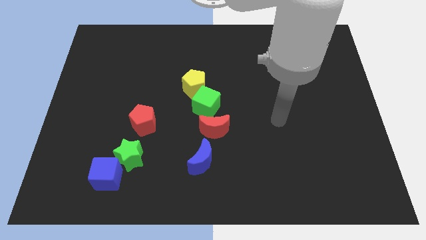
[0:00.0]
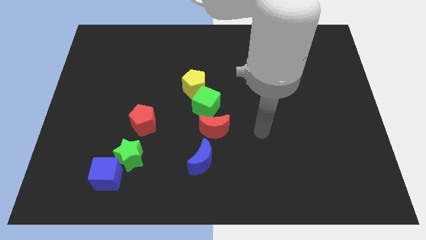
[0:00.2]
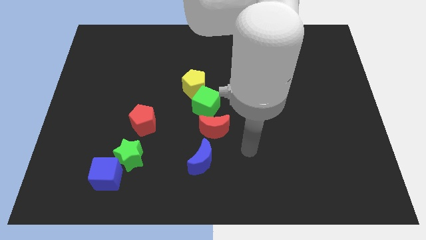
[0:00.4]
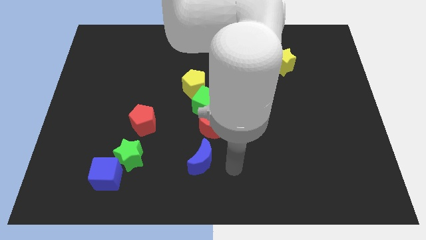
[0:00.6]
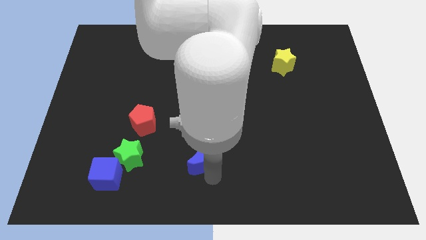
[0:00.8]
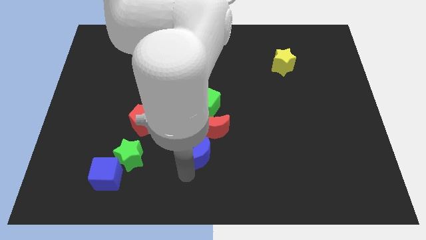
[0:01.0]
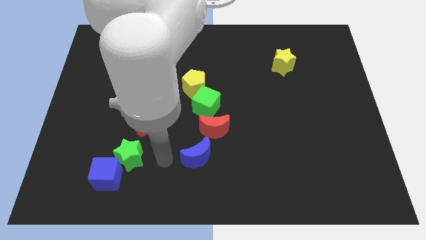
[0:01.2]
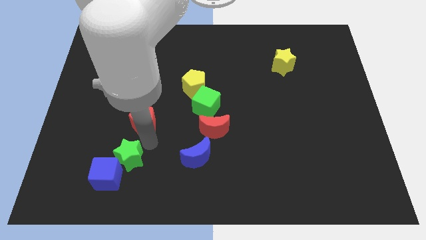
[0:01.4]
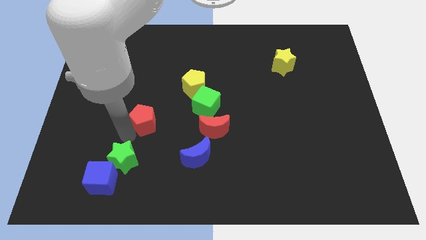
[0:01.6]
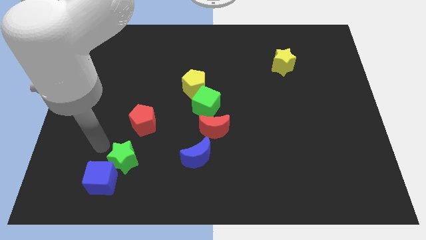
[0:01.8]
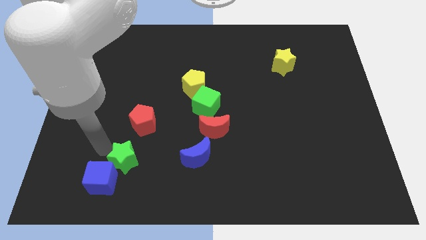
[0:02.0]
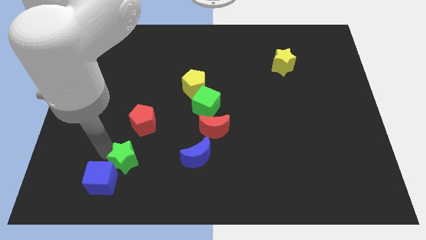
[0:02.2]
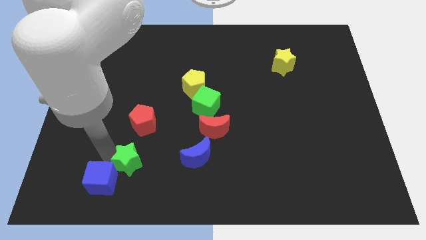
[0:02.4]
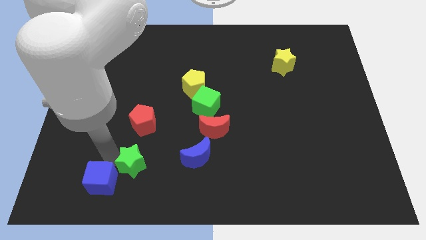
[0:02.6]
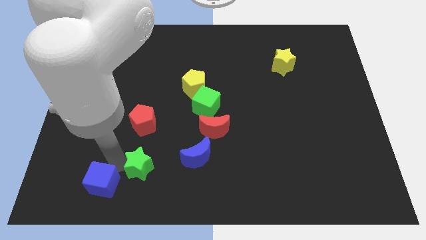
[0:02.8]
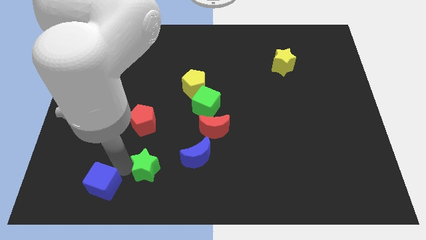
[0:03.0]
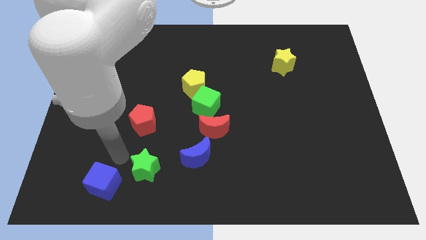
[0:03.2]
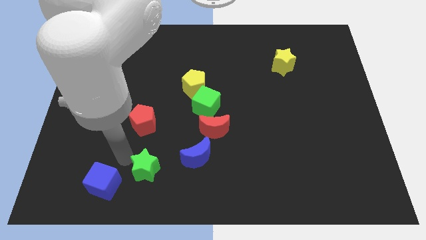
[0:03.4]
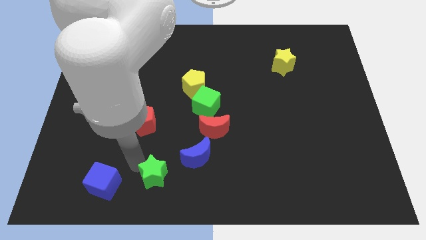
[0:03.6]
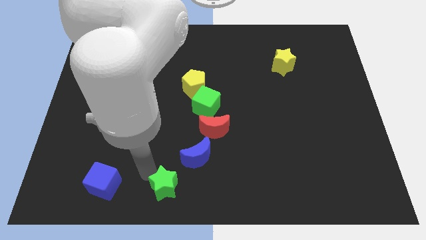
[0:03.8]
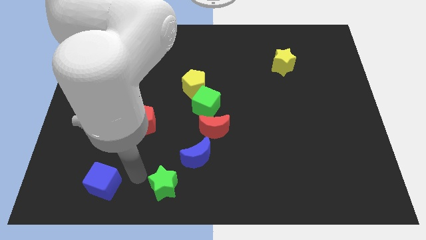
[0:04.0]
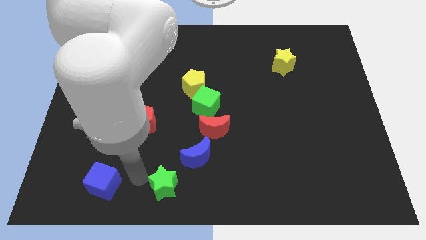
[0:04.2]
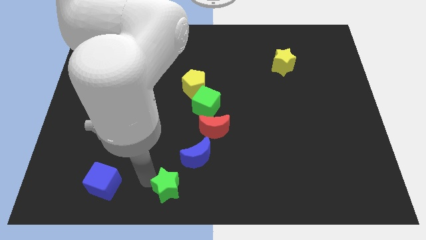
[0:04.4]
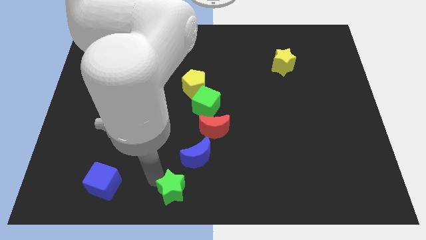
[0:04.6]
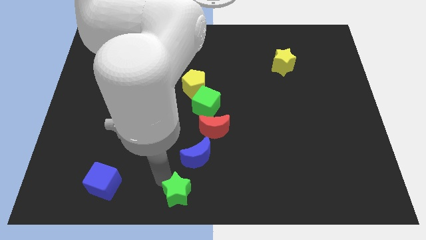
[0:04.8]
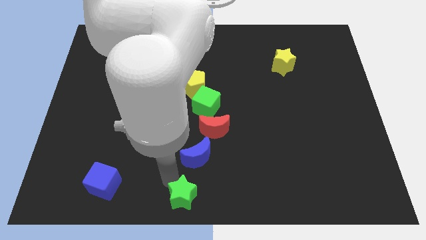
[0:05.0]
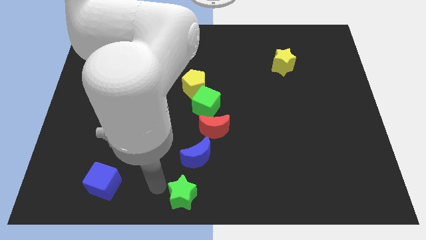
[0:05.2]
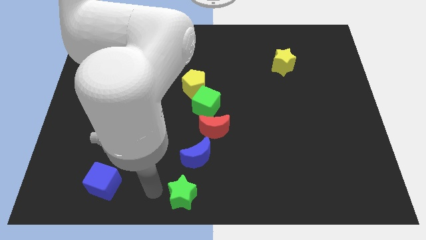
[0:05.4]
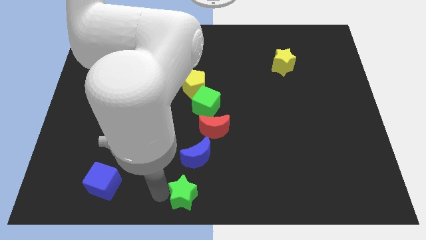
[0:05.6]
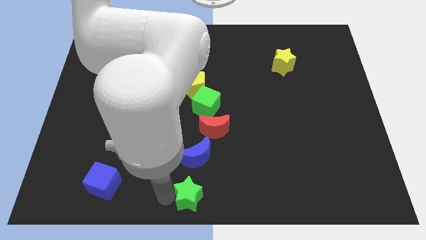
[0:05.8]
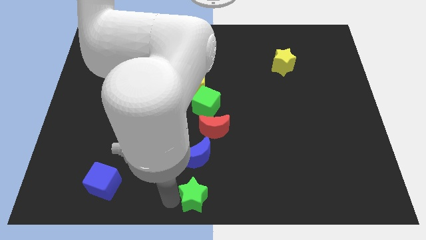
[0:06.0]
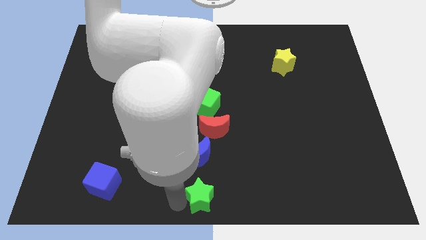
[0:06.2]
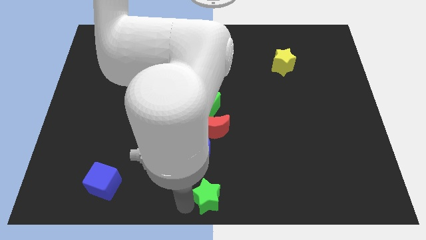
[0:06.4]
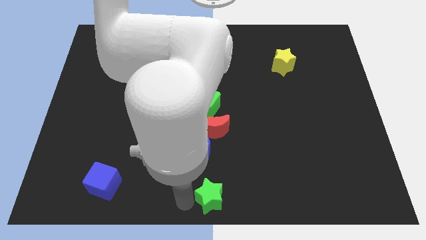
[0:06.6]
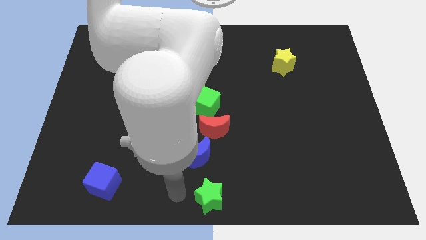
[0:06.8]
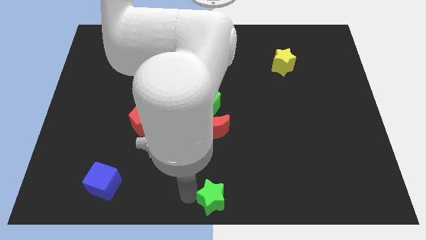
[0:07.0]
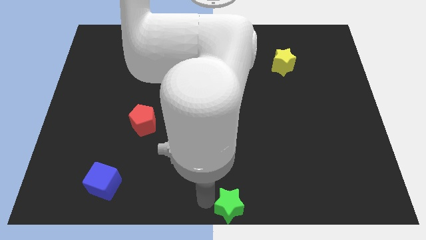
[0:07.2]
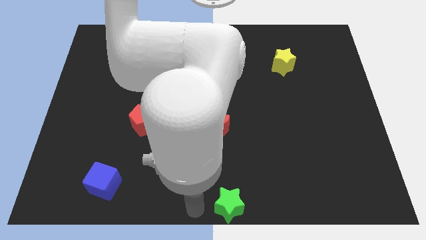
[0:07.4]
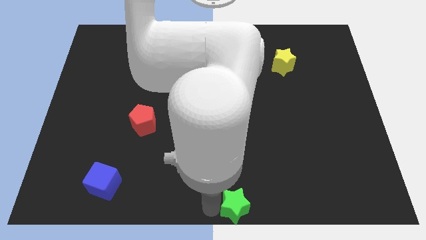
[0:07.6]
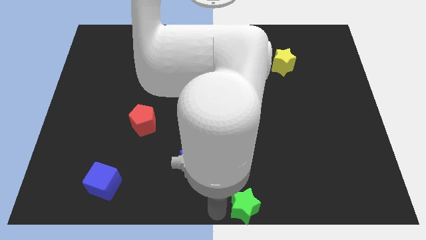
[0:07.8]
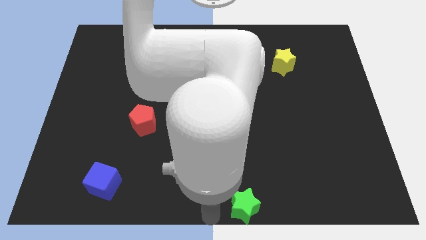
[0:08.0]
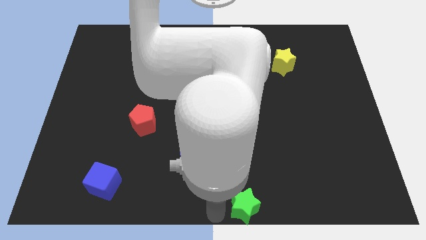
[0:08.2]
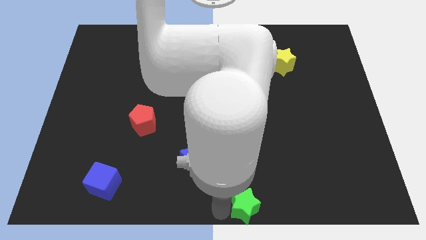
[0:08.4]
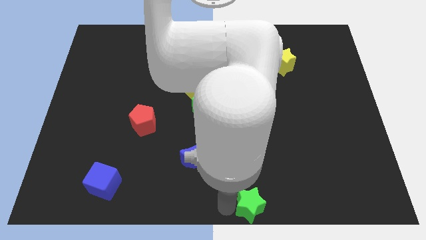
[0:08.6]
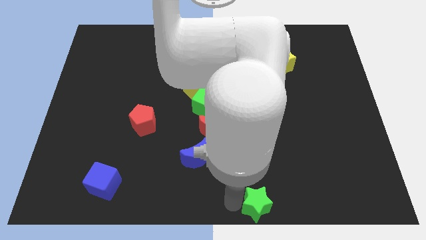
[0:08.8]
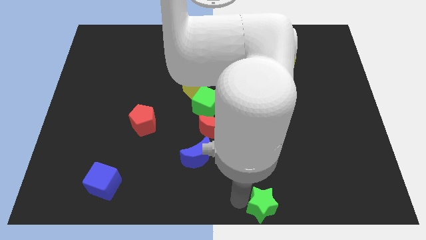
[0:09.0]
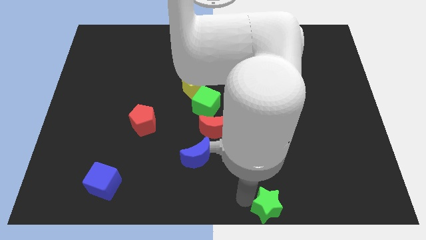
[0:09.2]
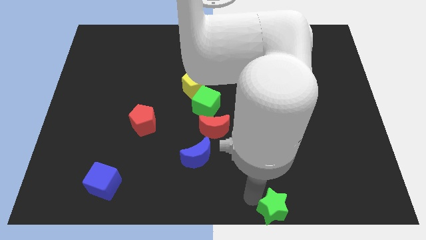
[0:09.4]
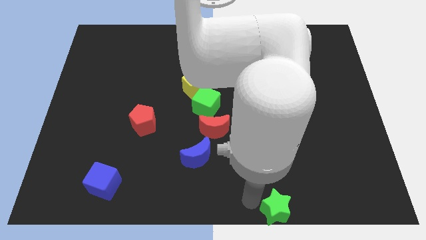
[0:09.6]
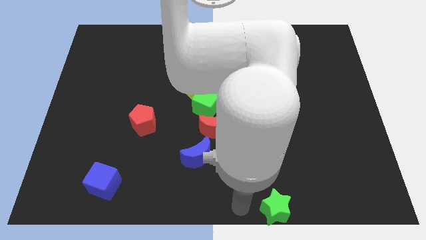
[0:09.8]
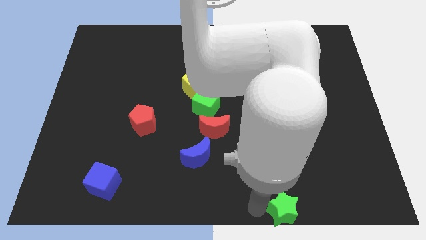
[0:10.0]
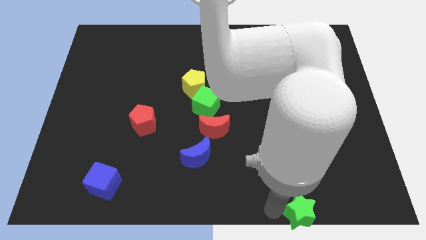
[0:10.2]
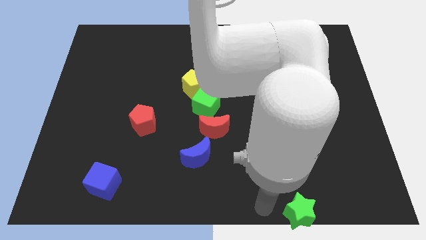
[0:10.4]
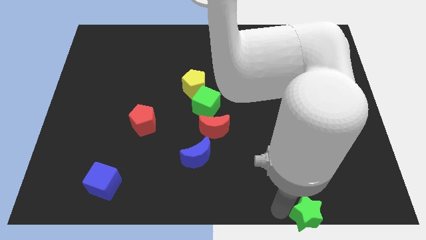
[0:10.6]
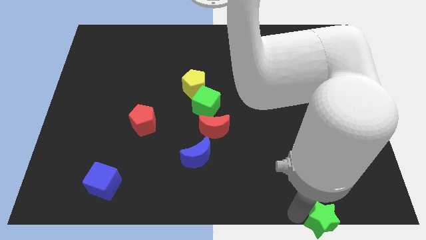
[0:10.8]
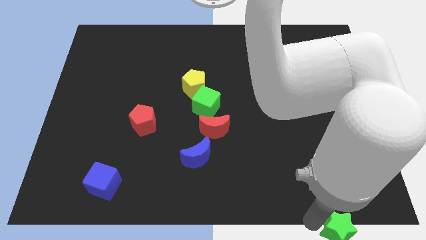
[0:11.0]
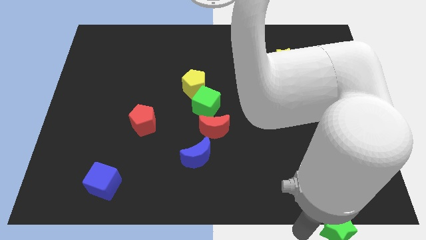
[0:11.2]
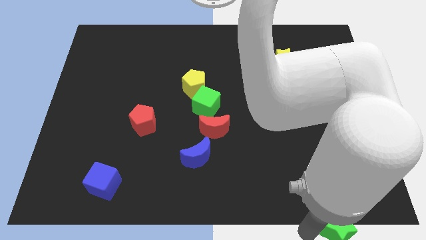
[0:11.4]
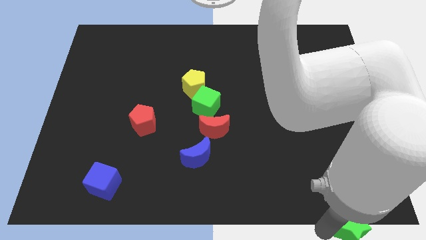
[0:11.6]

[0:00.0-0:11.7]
put the green star to the bottom right corner
